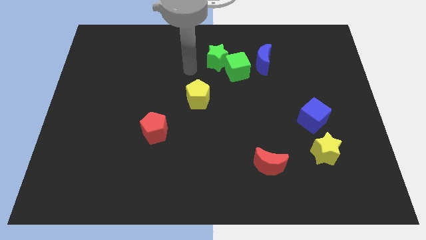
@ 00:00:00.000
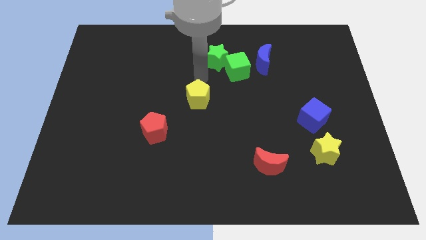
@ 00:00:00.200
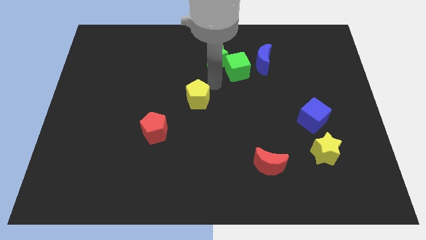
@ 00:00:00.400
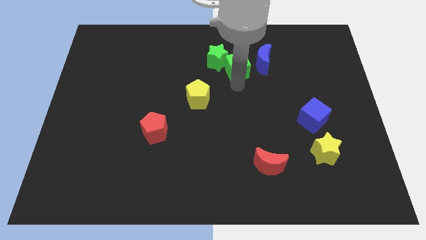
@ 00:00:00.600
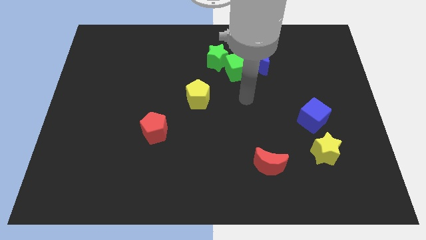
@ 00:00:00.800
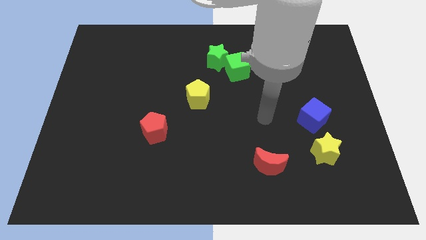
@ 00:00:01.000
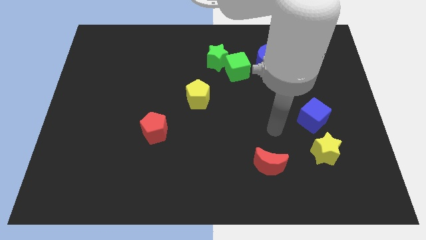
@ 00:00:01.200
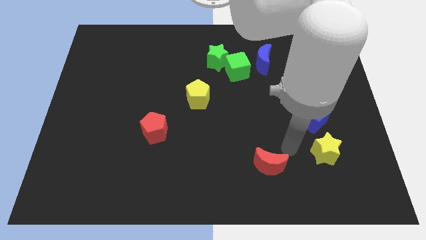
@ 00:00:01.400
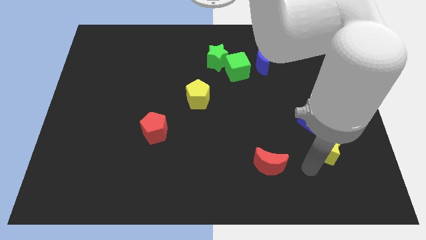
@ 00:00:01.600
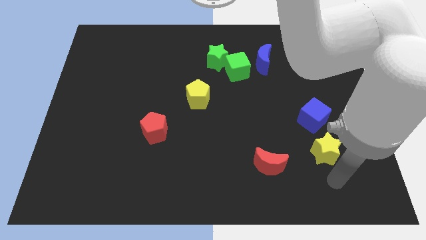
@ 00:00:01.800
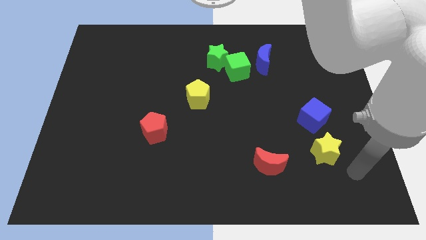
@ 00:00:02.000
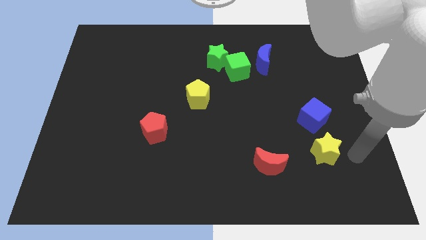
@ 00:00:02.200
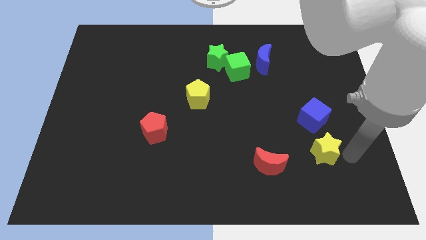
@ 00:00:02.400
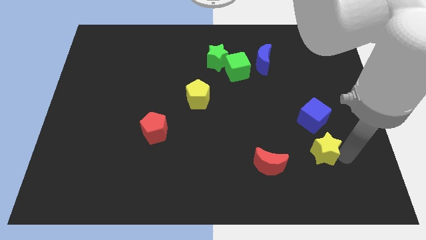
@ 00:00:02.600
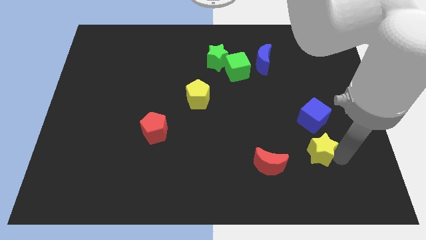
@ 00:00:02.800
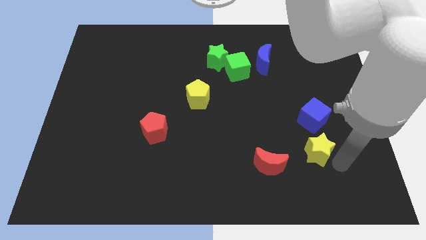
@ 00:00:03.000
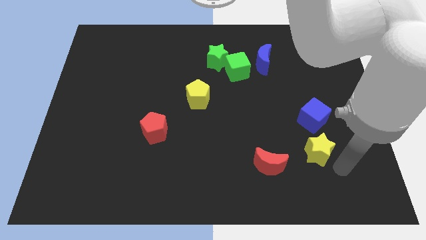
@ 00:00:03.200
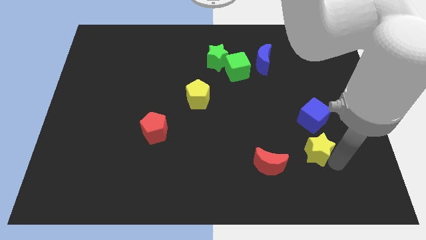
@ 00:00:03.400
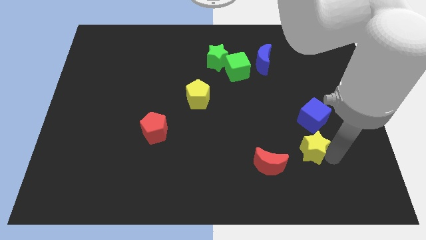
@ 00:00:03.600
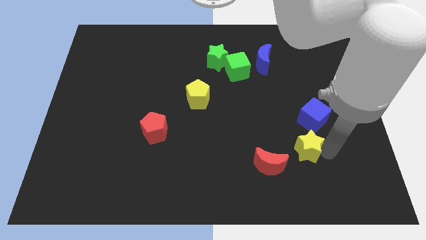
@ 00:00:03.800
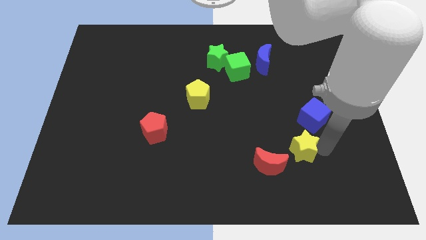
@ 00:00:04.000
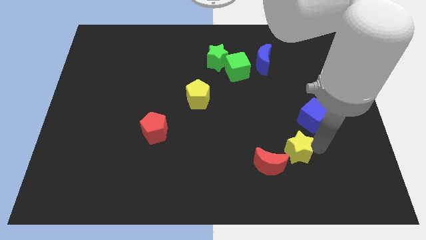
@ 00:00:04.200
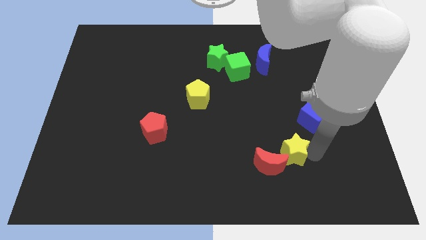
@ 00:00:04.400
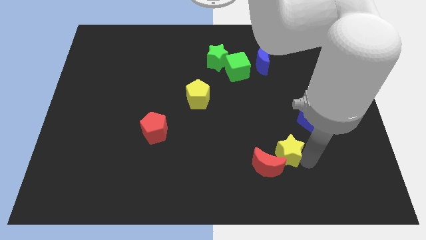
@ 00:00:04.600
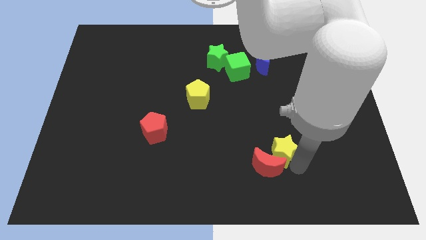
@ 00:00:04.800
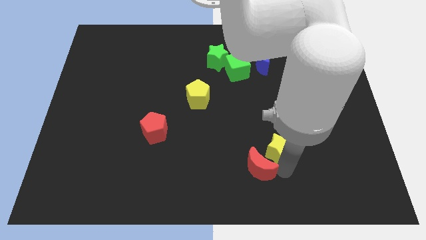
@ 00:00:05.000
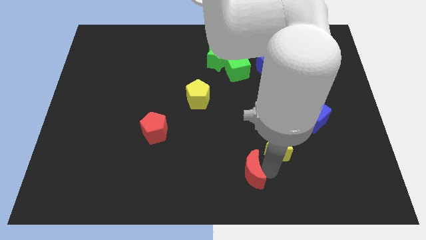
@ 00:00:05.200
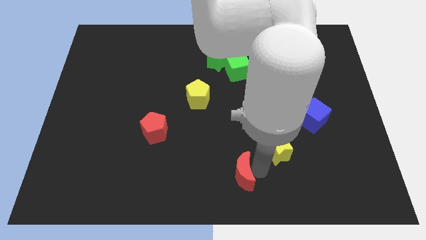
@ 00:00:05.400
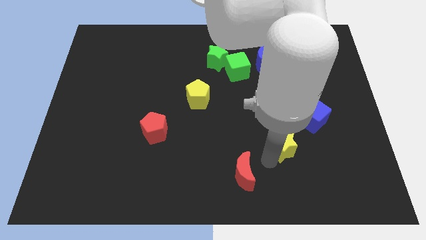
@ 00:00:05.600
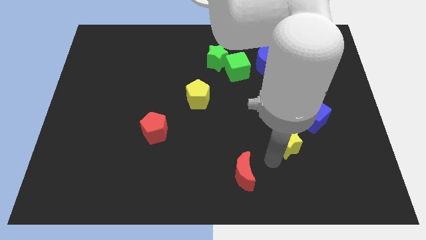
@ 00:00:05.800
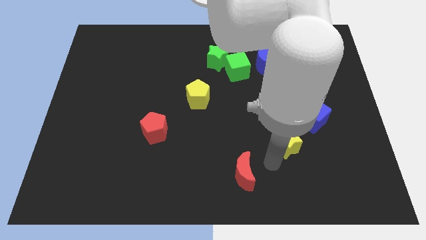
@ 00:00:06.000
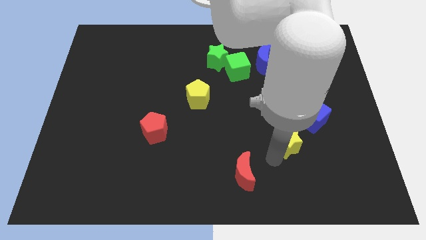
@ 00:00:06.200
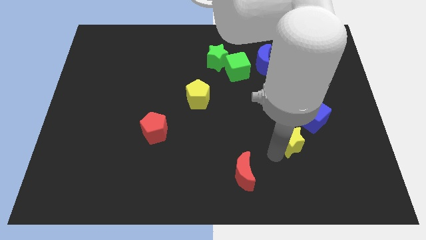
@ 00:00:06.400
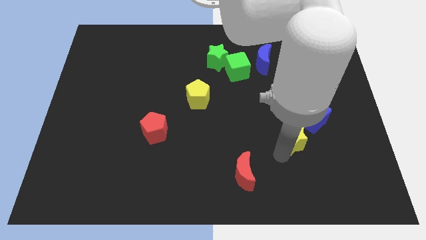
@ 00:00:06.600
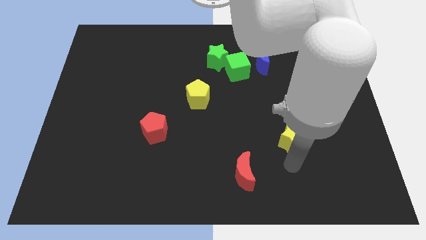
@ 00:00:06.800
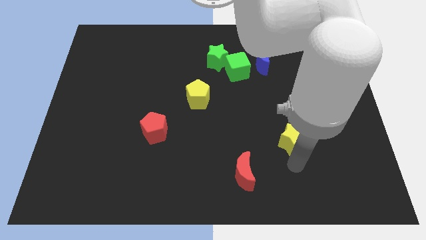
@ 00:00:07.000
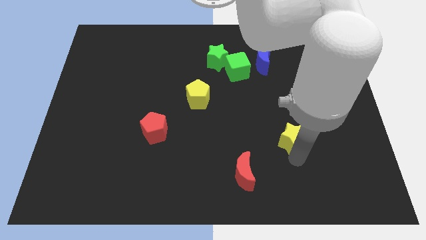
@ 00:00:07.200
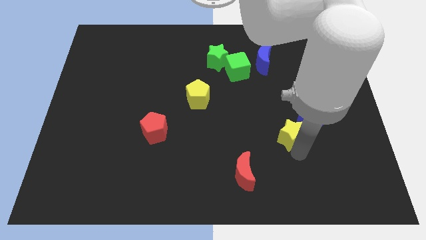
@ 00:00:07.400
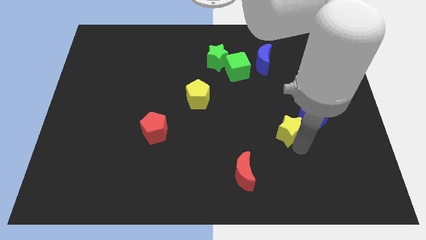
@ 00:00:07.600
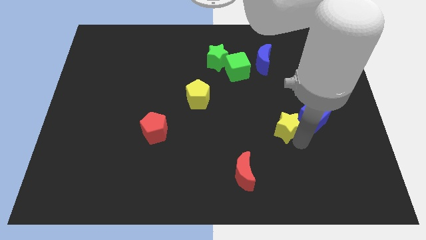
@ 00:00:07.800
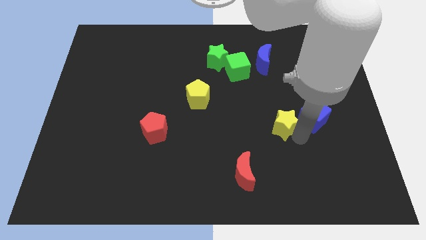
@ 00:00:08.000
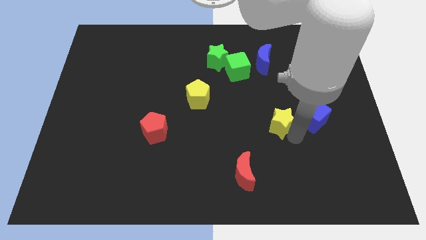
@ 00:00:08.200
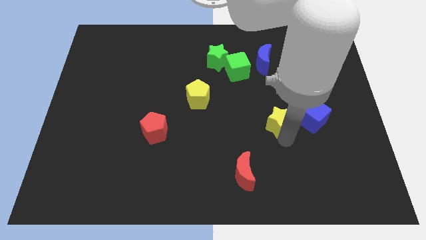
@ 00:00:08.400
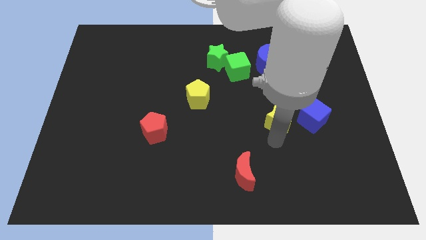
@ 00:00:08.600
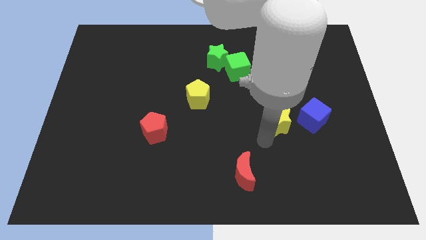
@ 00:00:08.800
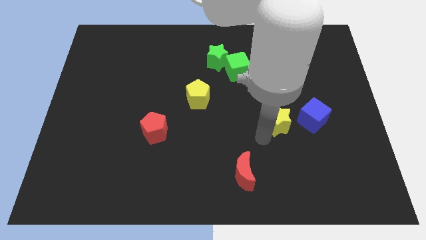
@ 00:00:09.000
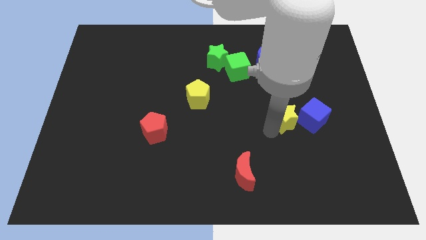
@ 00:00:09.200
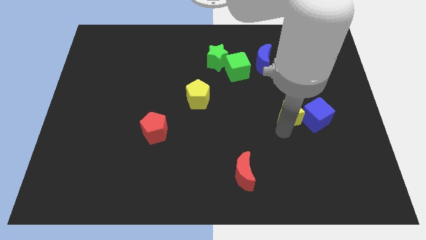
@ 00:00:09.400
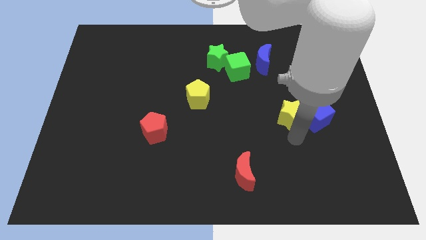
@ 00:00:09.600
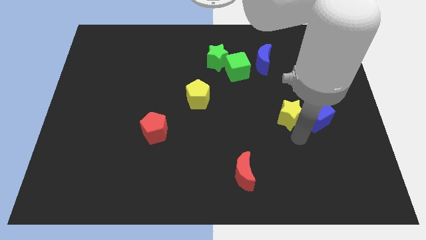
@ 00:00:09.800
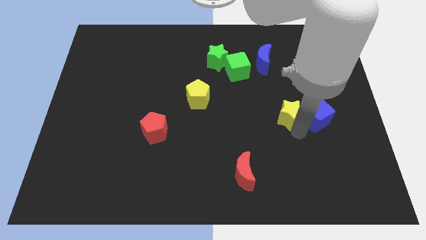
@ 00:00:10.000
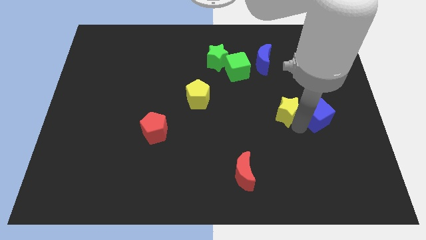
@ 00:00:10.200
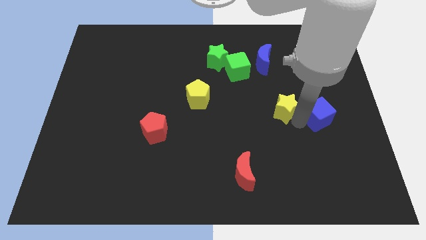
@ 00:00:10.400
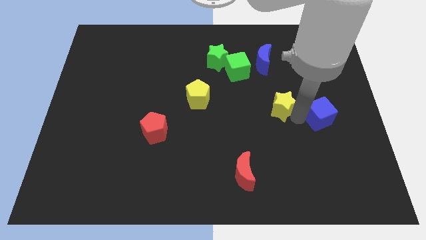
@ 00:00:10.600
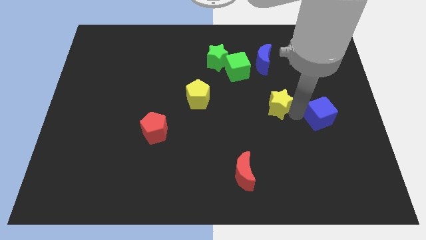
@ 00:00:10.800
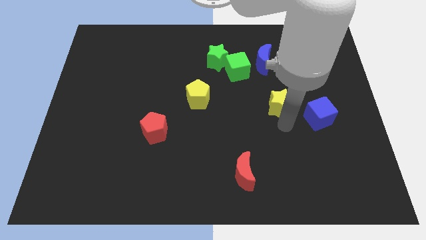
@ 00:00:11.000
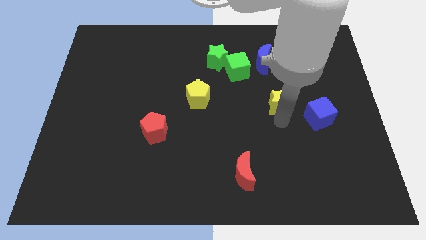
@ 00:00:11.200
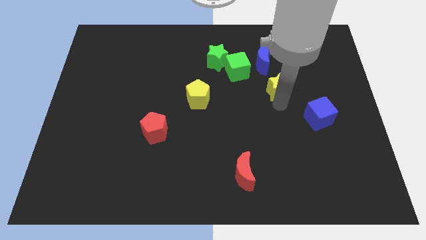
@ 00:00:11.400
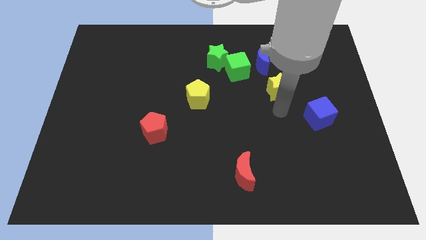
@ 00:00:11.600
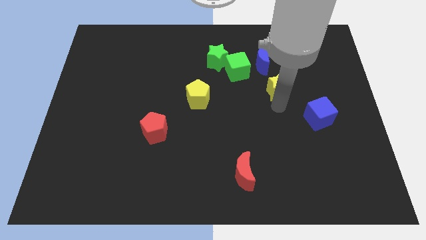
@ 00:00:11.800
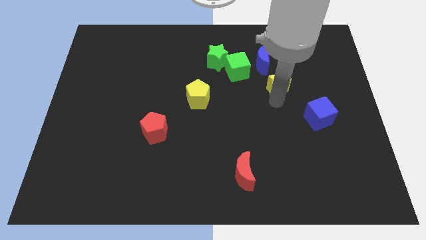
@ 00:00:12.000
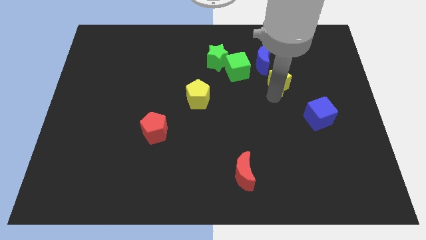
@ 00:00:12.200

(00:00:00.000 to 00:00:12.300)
push the yellow star just right of the green cube

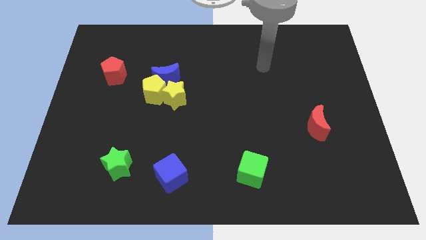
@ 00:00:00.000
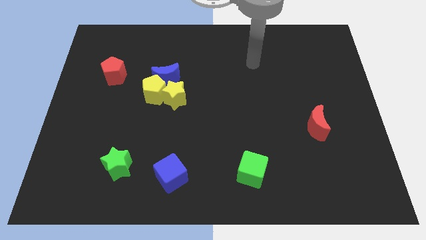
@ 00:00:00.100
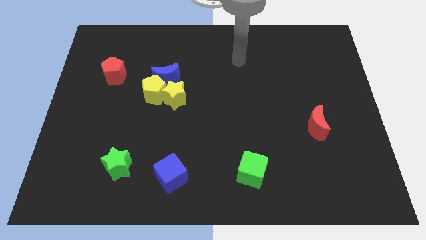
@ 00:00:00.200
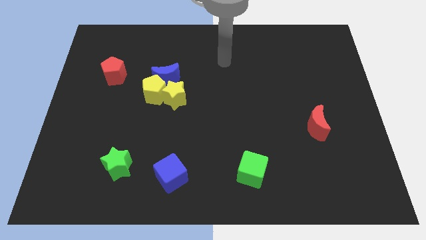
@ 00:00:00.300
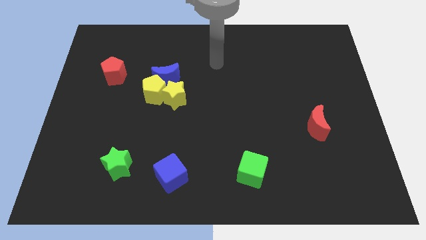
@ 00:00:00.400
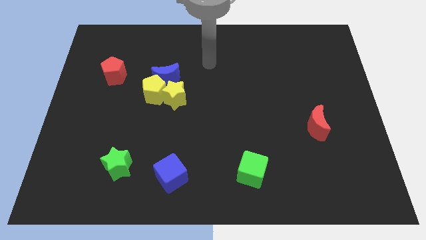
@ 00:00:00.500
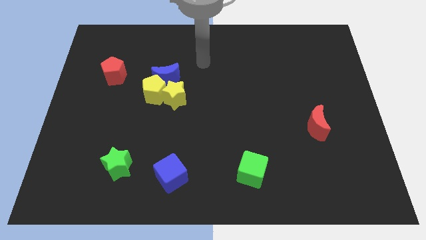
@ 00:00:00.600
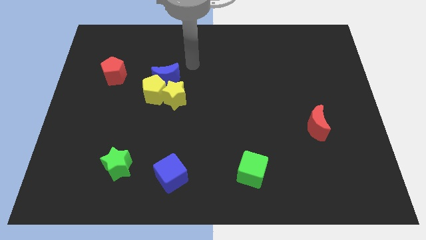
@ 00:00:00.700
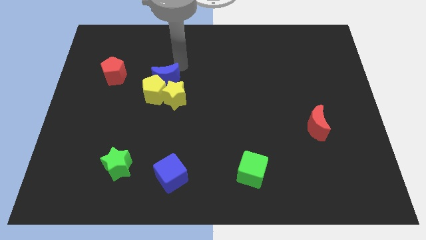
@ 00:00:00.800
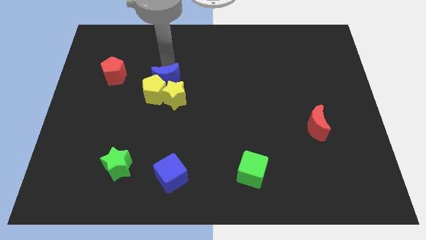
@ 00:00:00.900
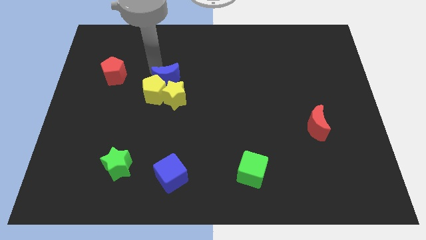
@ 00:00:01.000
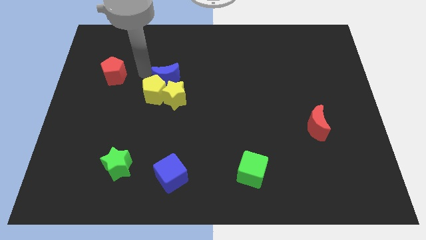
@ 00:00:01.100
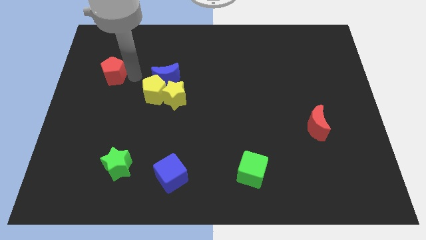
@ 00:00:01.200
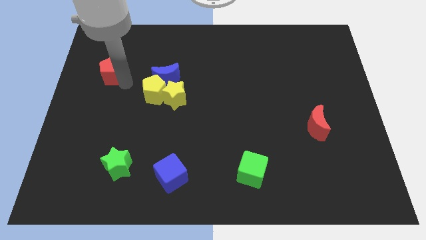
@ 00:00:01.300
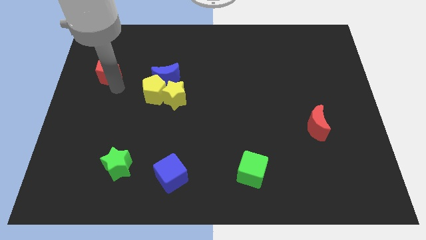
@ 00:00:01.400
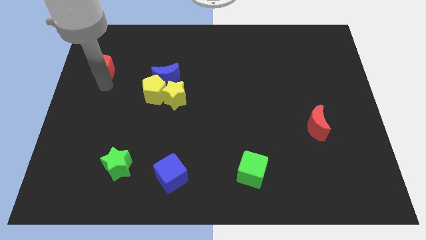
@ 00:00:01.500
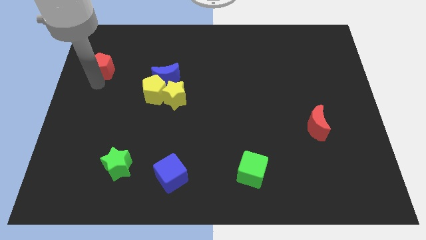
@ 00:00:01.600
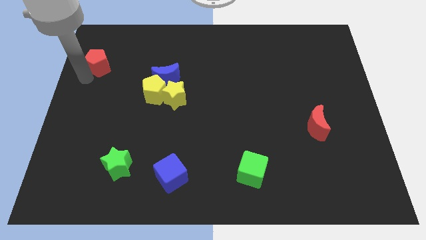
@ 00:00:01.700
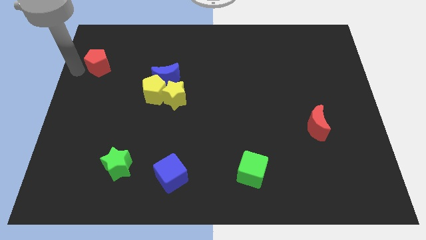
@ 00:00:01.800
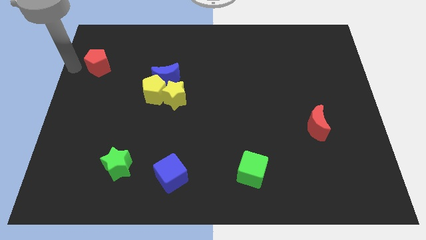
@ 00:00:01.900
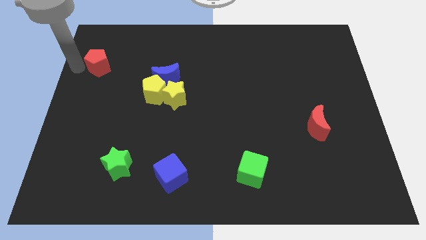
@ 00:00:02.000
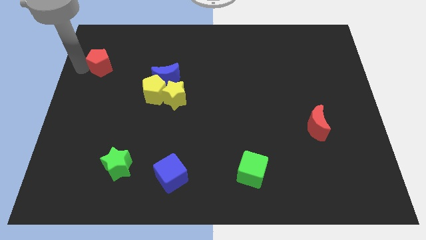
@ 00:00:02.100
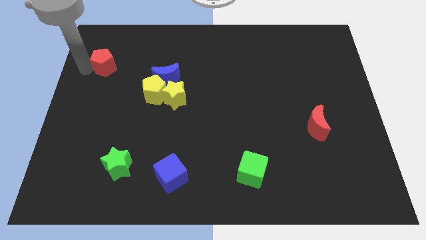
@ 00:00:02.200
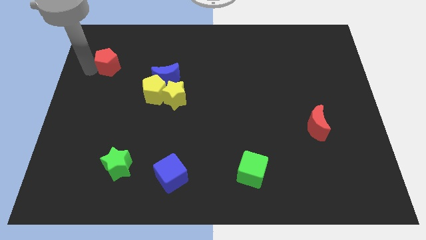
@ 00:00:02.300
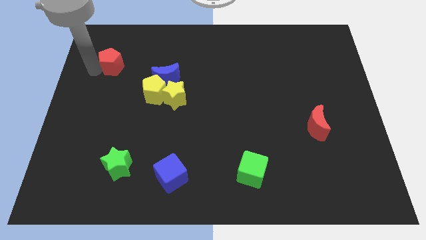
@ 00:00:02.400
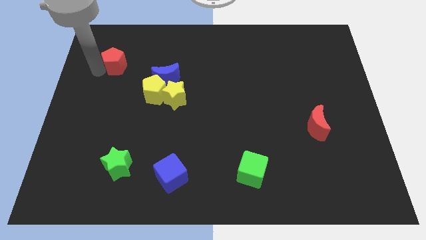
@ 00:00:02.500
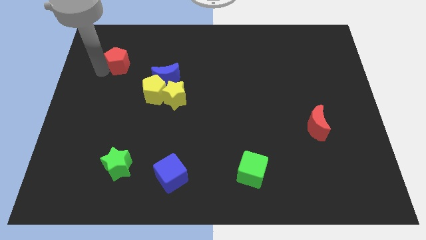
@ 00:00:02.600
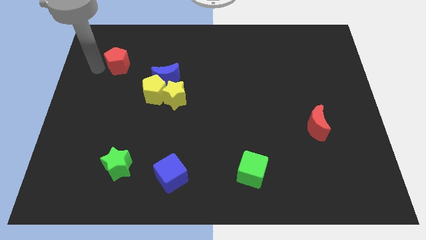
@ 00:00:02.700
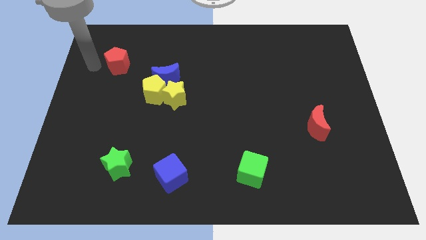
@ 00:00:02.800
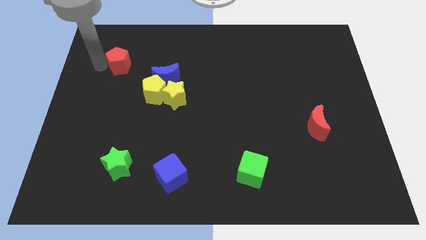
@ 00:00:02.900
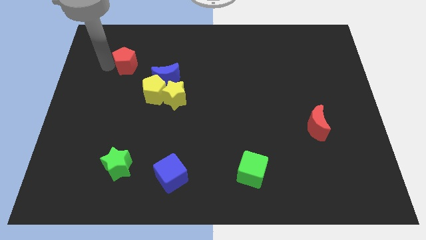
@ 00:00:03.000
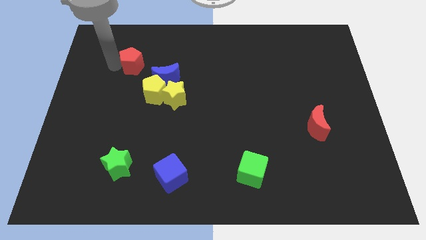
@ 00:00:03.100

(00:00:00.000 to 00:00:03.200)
slide the red pentagon to the top left of the blue moon
